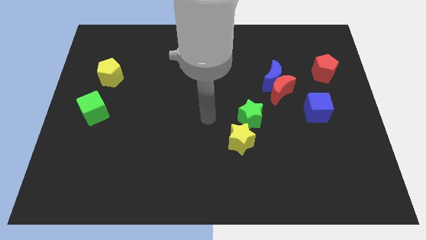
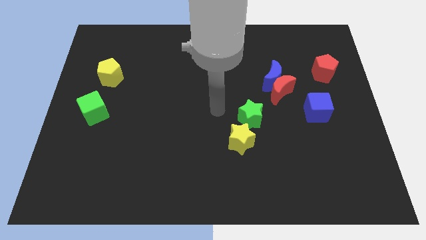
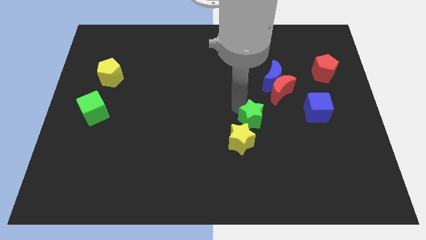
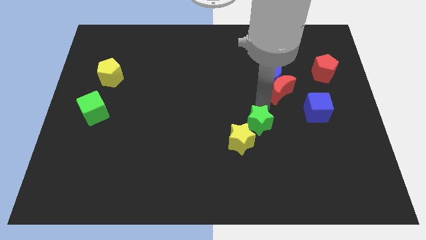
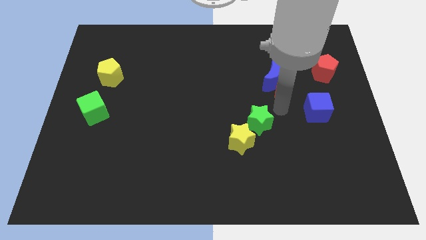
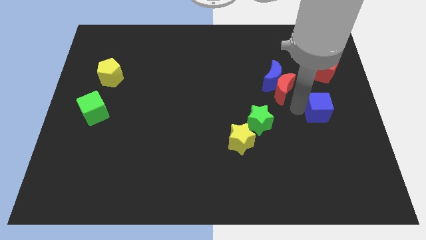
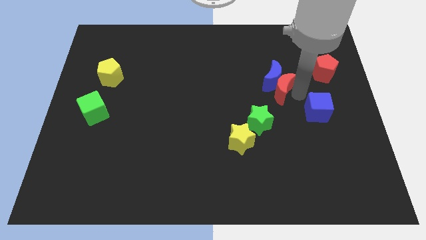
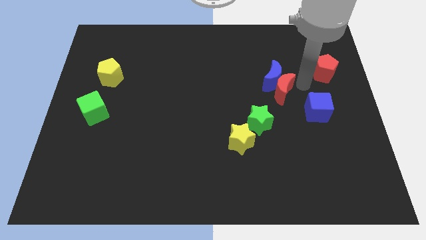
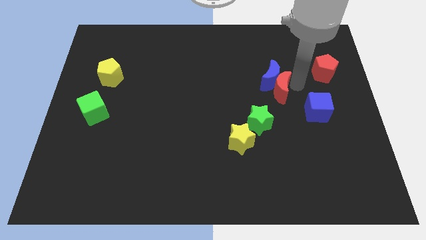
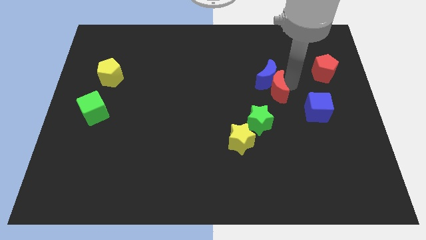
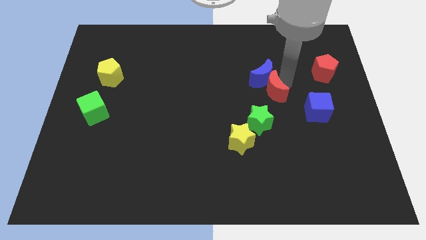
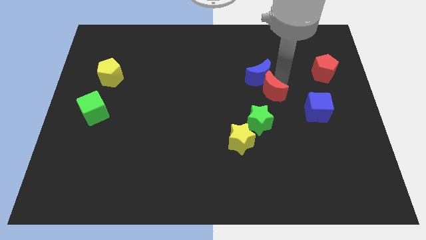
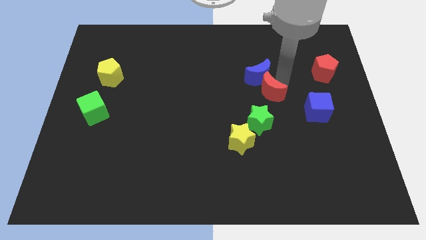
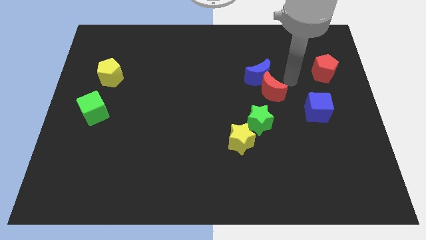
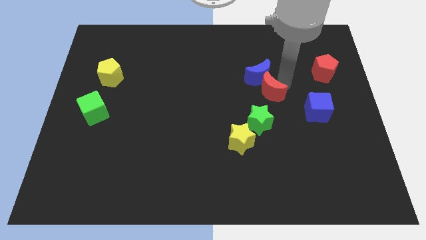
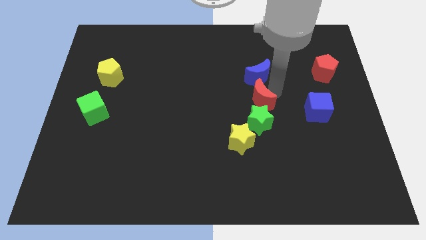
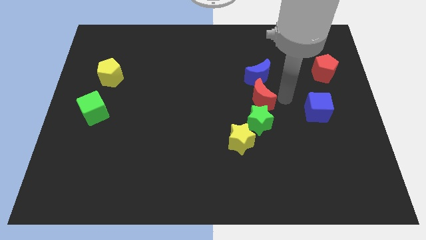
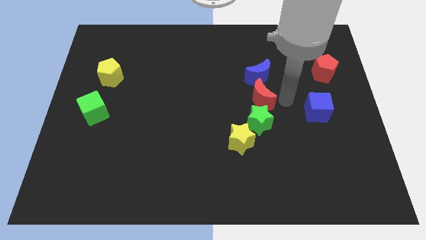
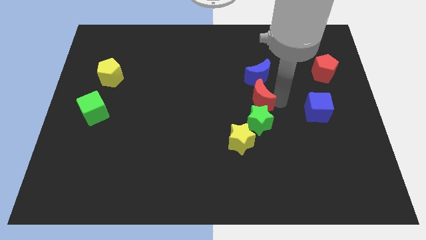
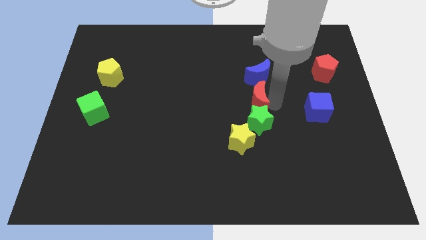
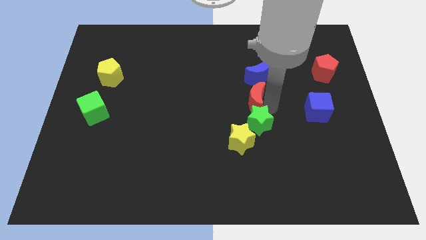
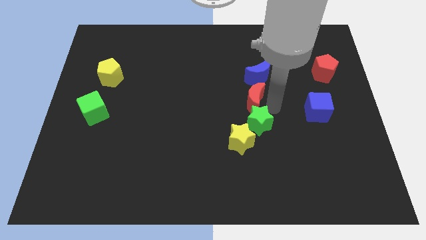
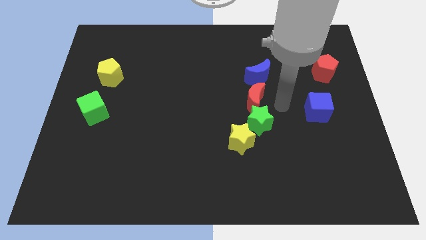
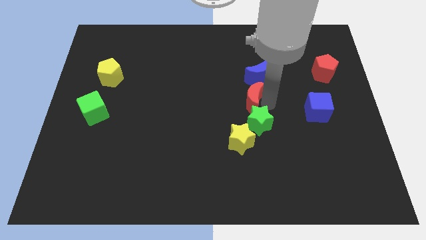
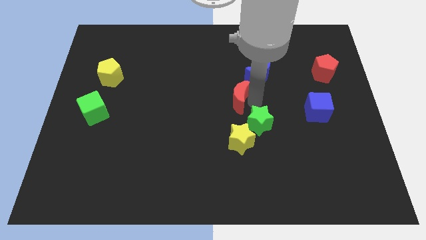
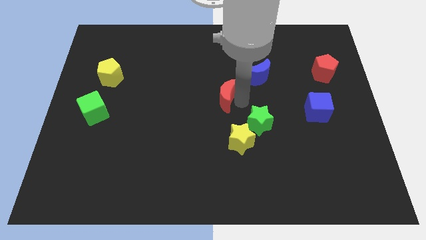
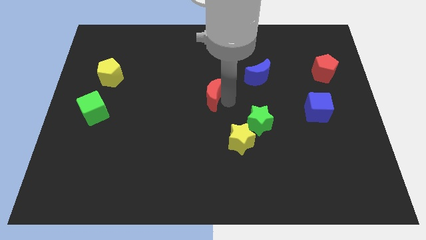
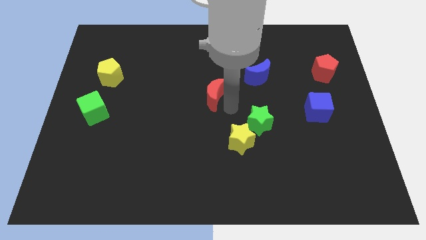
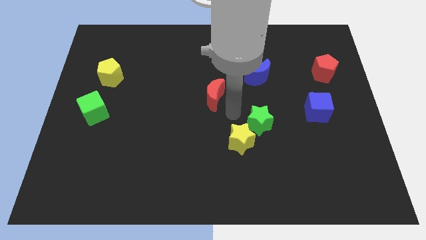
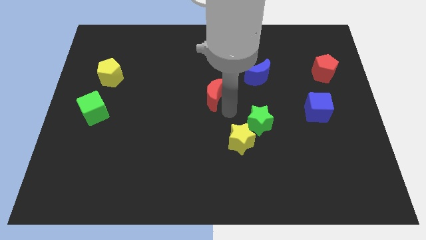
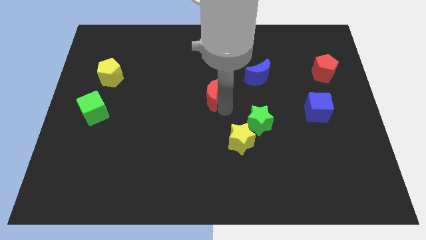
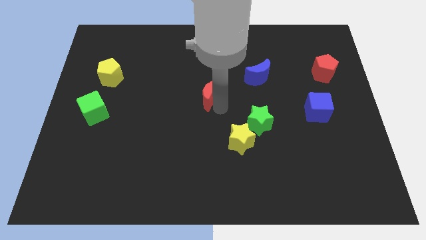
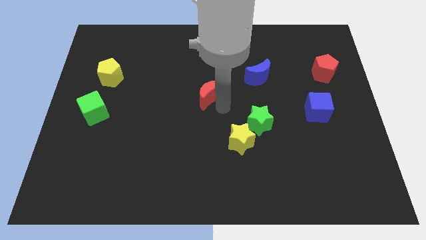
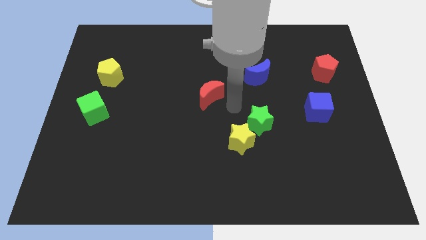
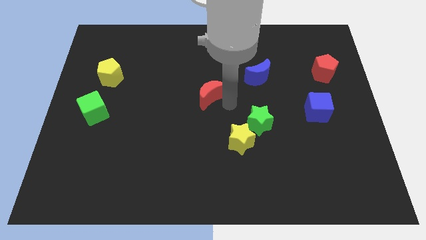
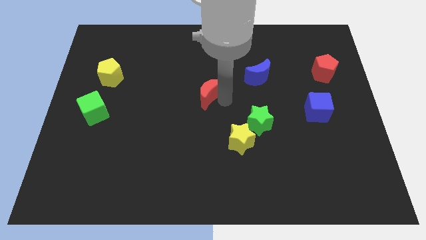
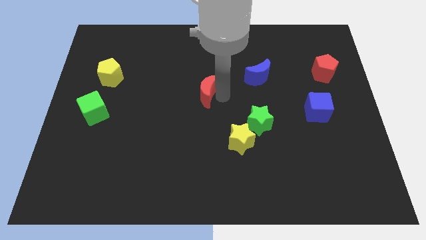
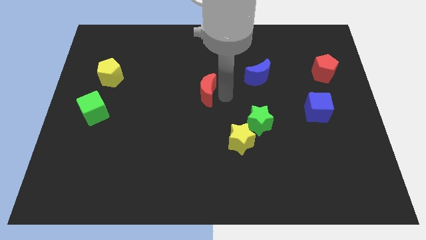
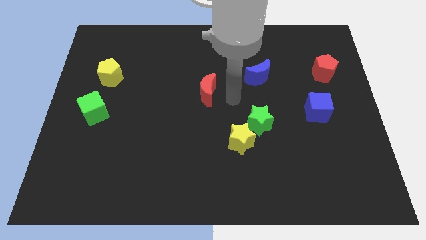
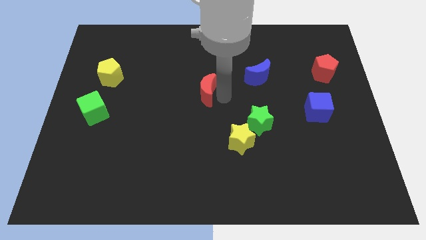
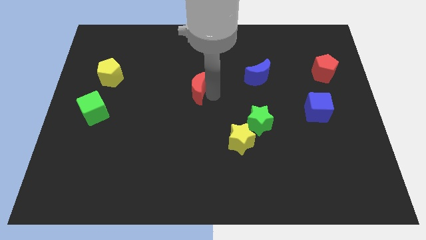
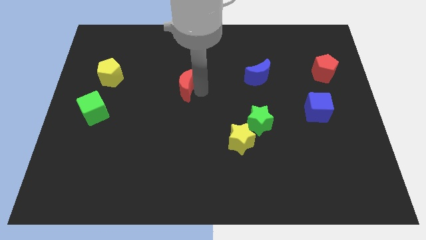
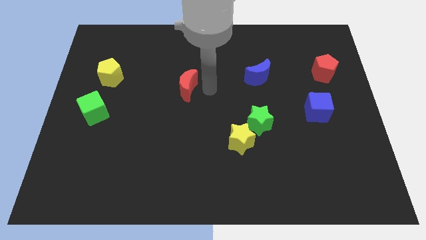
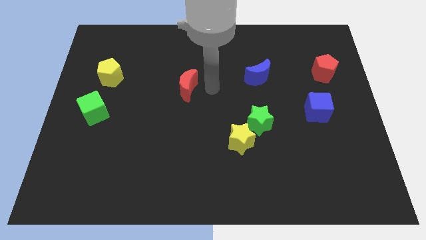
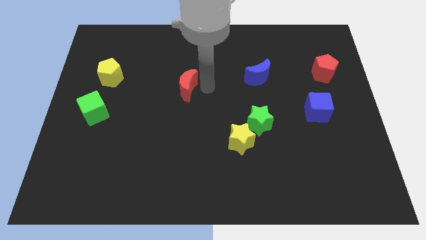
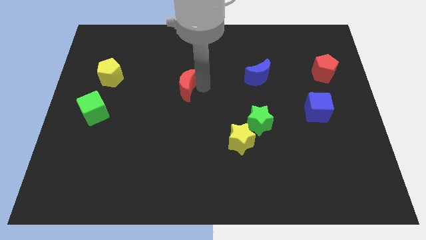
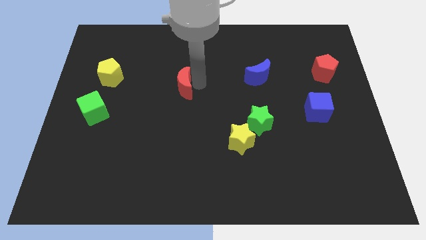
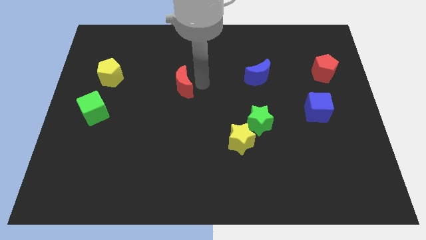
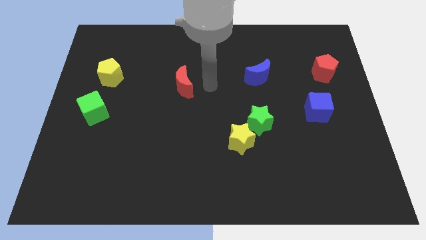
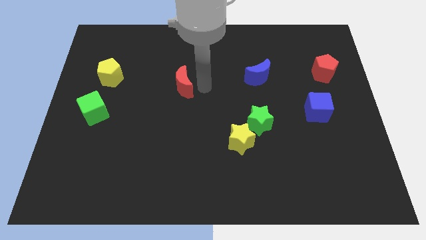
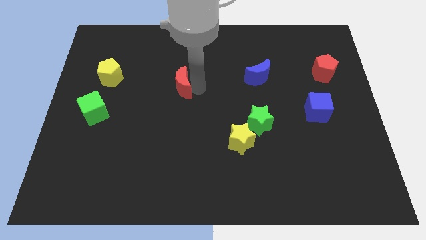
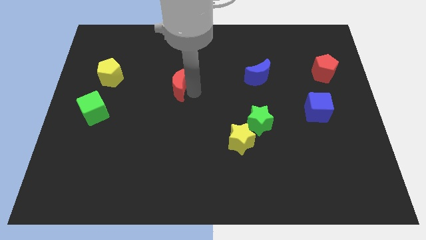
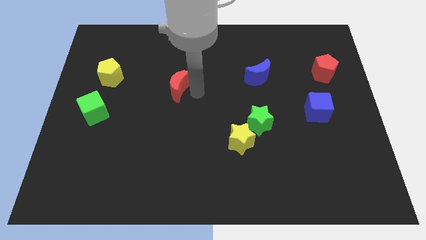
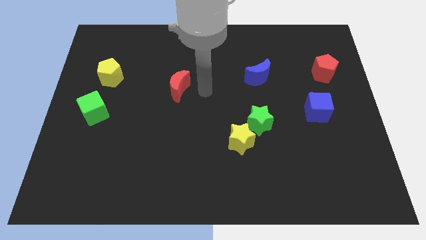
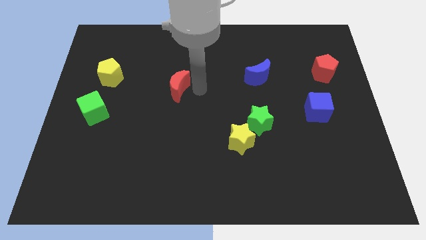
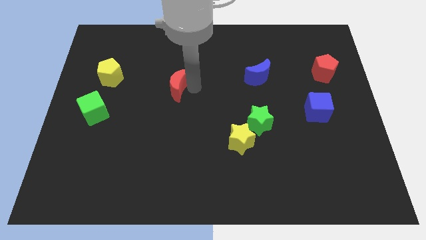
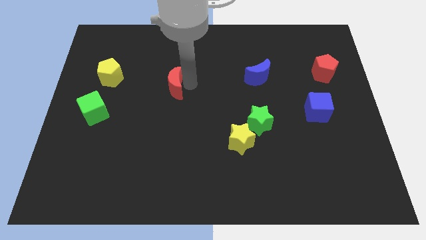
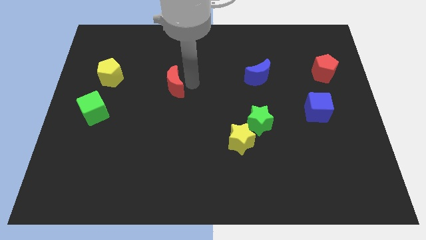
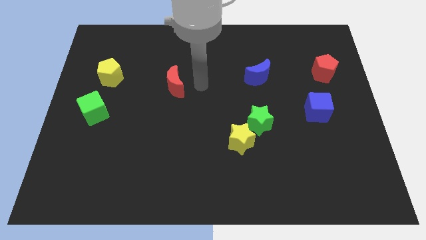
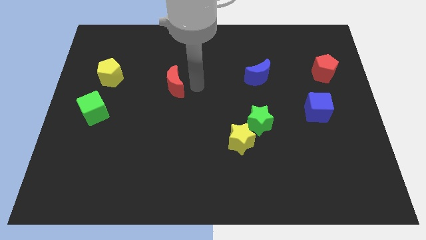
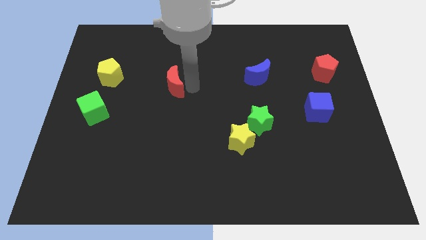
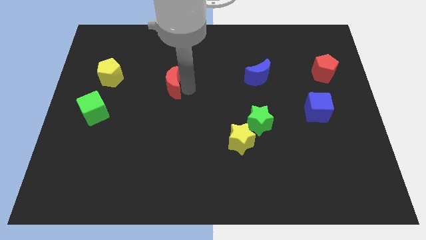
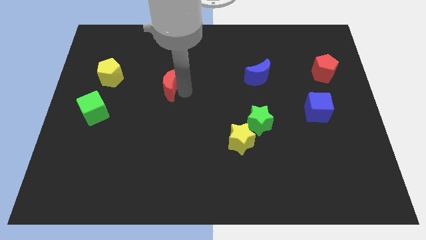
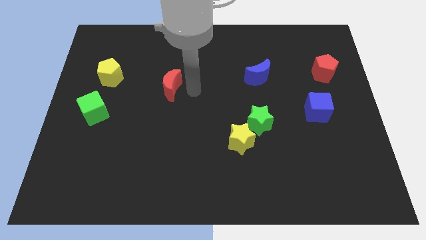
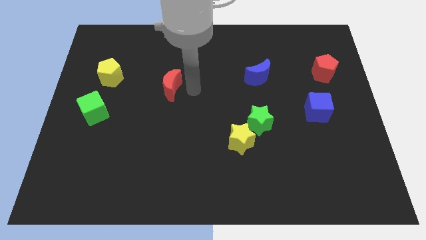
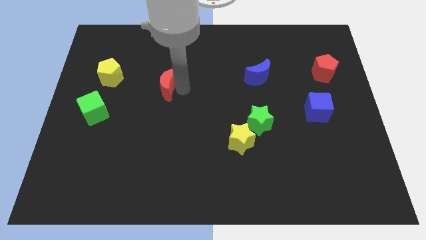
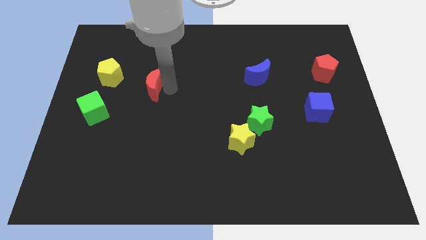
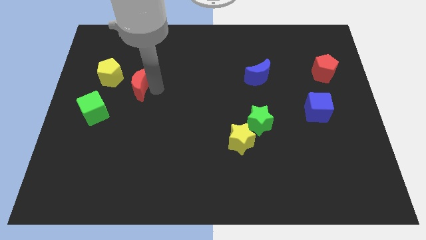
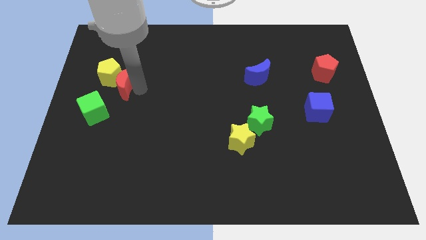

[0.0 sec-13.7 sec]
slide the red moon towards the yellow pentagon
